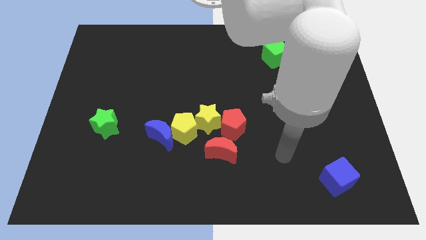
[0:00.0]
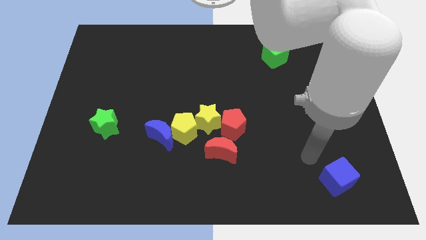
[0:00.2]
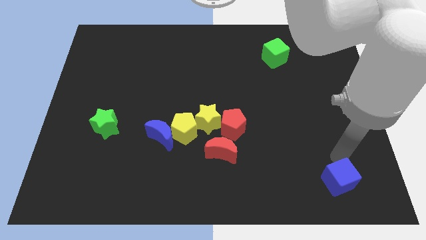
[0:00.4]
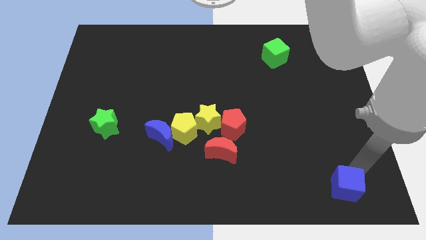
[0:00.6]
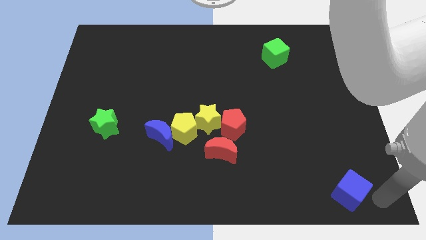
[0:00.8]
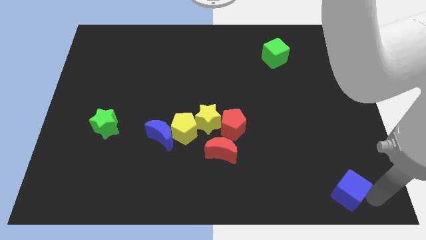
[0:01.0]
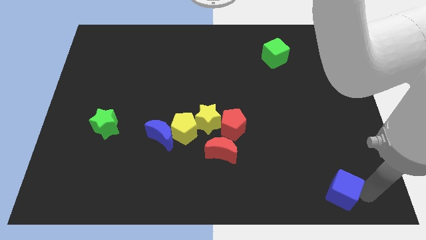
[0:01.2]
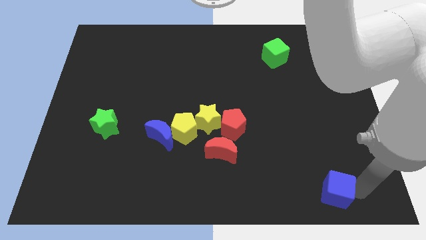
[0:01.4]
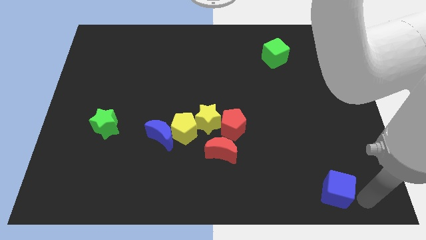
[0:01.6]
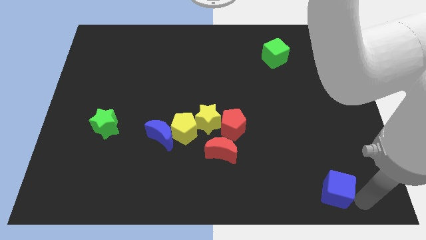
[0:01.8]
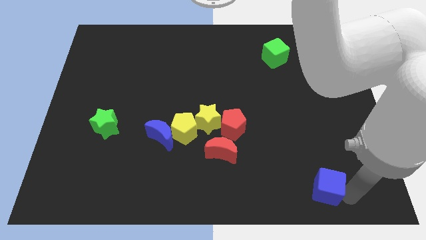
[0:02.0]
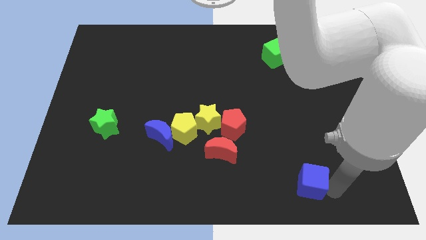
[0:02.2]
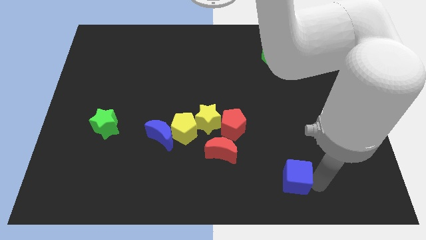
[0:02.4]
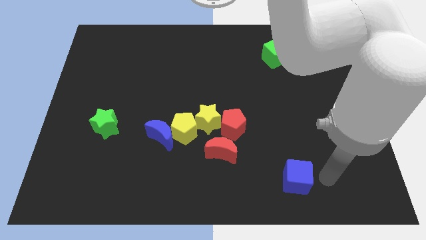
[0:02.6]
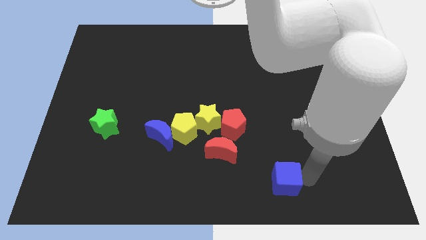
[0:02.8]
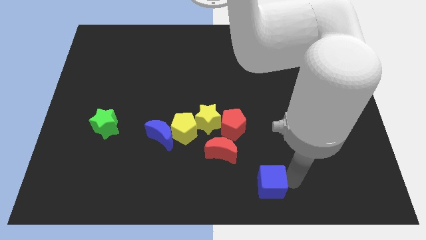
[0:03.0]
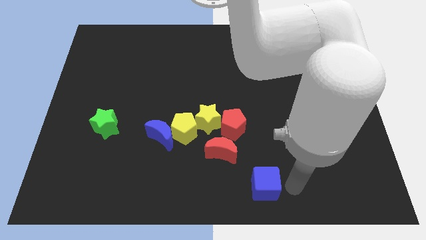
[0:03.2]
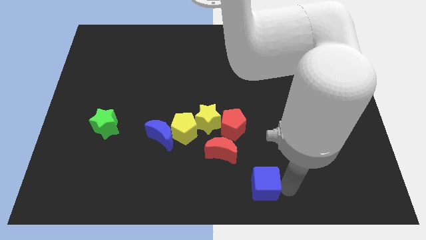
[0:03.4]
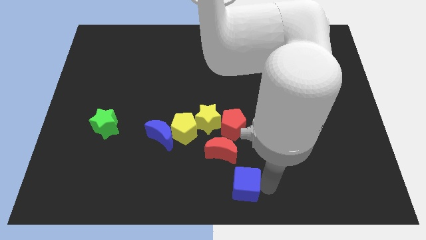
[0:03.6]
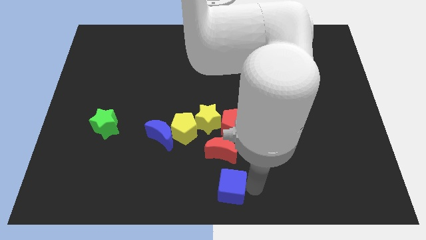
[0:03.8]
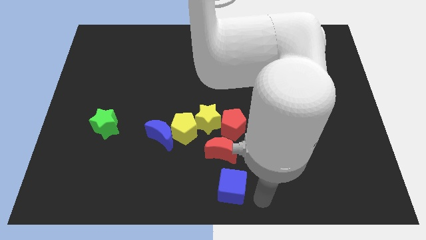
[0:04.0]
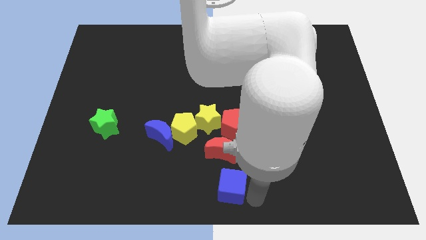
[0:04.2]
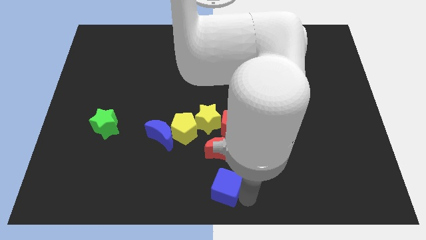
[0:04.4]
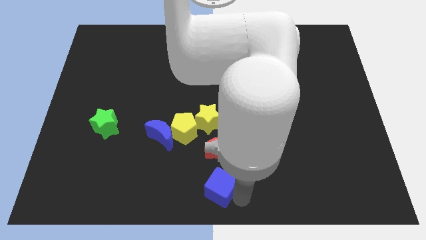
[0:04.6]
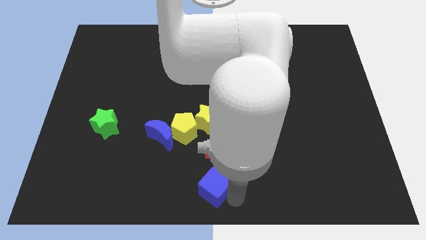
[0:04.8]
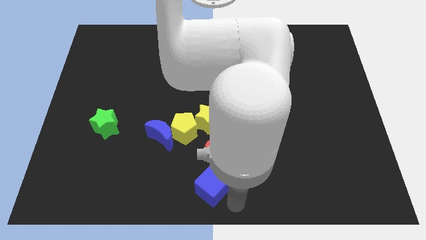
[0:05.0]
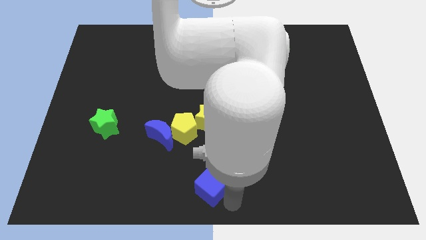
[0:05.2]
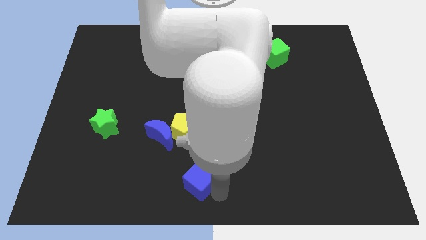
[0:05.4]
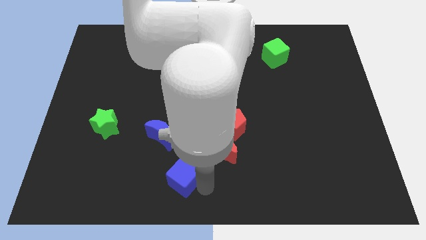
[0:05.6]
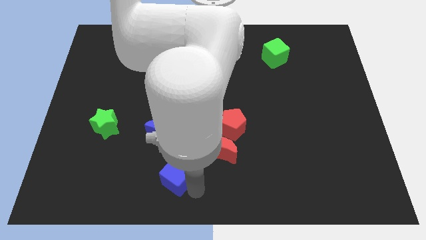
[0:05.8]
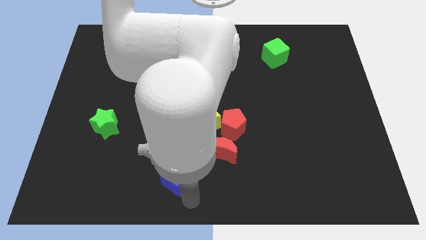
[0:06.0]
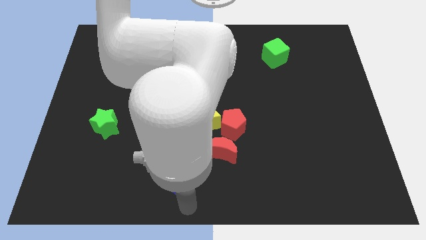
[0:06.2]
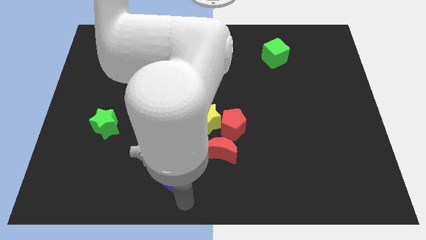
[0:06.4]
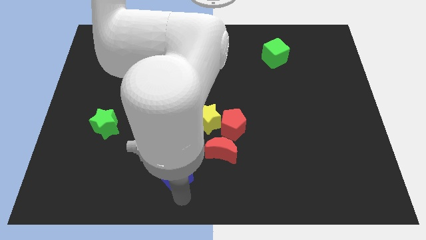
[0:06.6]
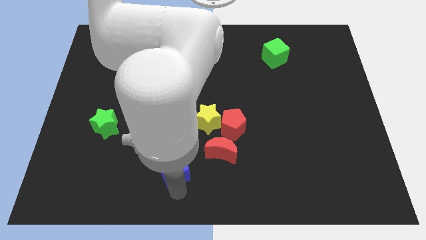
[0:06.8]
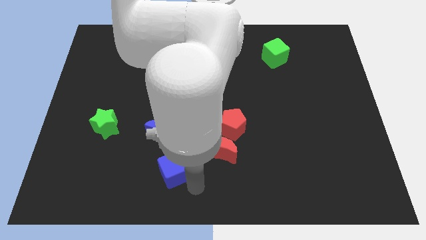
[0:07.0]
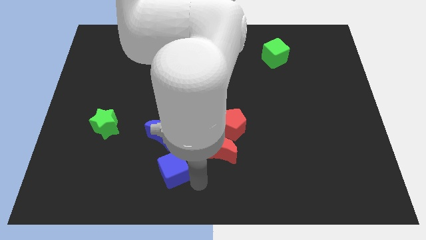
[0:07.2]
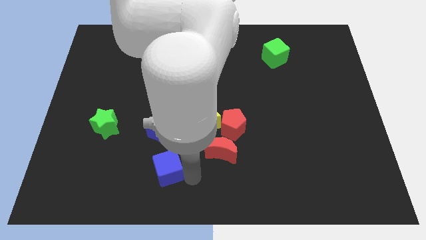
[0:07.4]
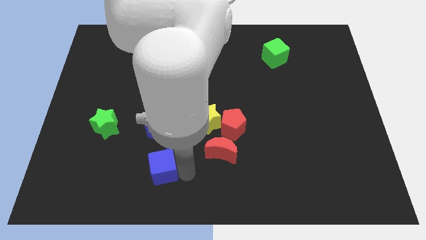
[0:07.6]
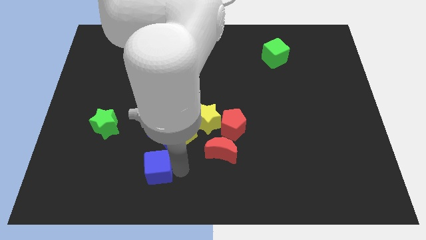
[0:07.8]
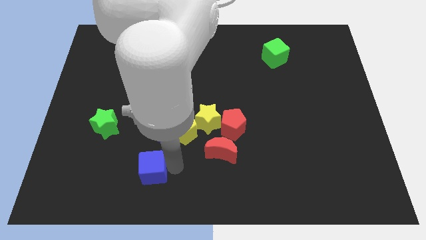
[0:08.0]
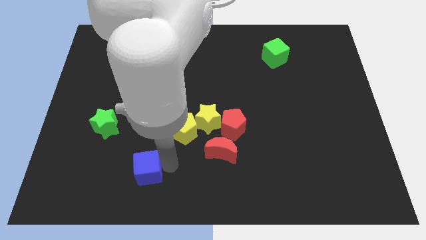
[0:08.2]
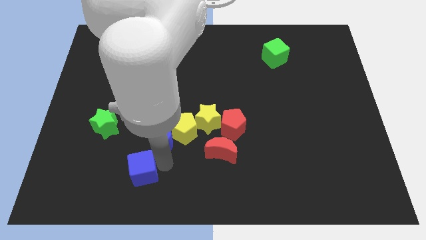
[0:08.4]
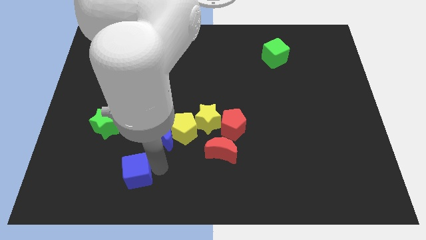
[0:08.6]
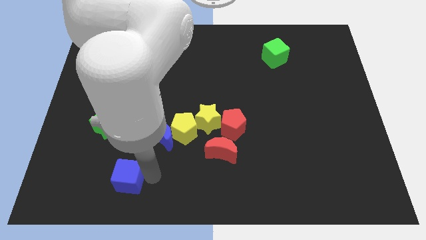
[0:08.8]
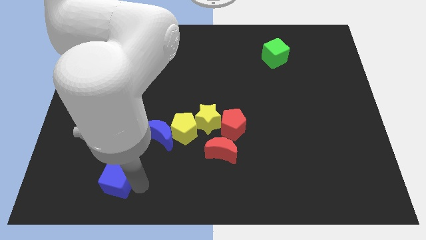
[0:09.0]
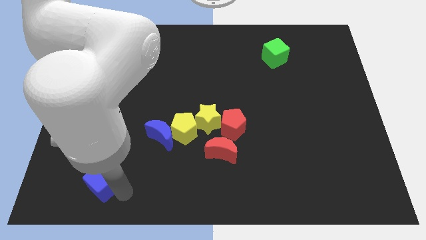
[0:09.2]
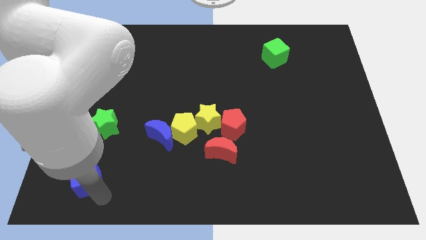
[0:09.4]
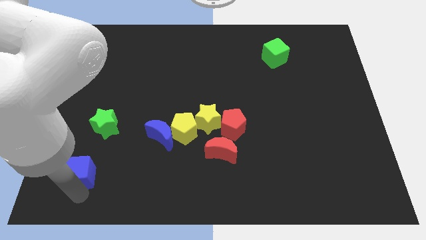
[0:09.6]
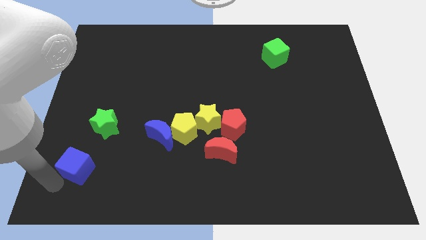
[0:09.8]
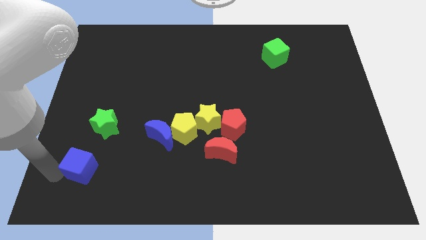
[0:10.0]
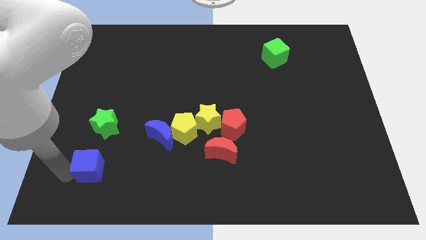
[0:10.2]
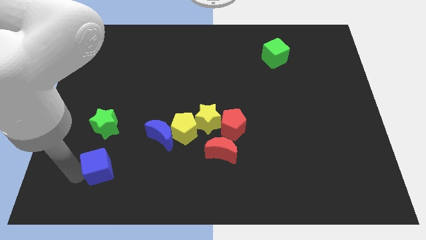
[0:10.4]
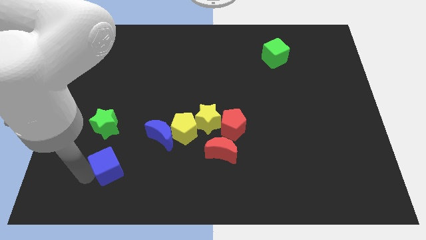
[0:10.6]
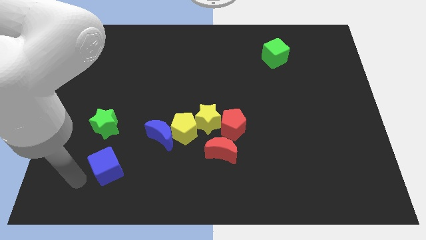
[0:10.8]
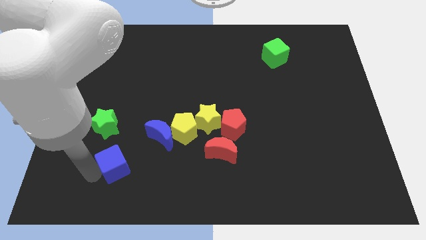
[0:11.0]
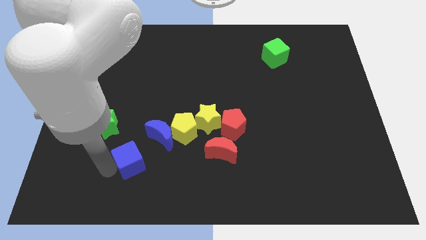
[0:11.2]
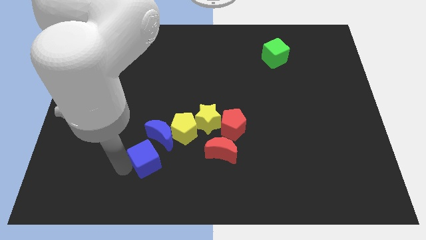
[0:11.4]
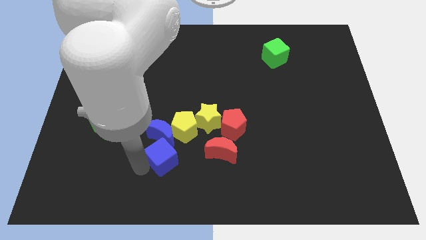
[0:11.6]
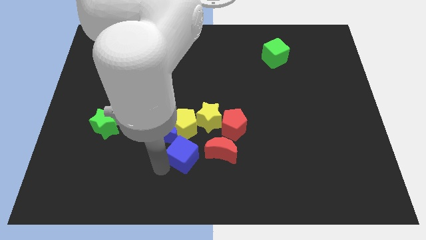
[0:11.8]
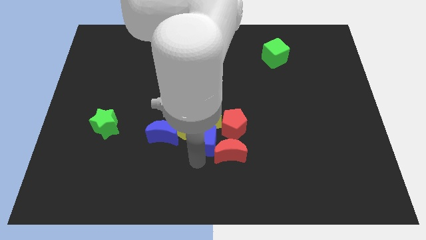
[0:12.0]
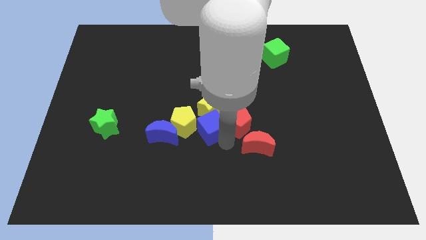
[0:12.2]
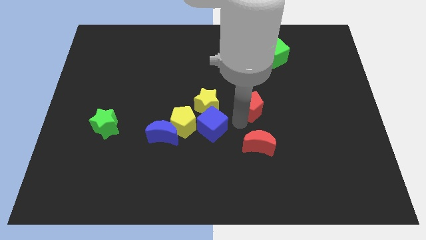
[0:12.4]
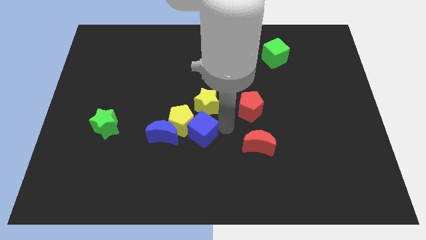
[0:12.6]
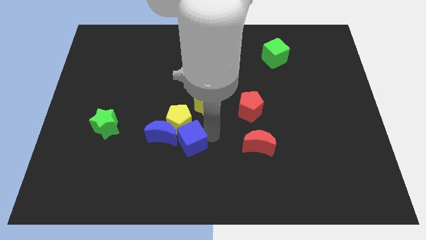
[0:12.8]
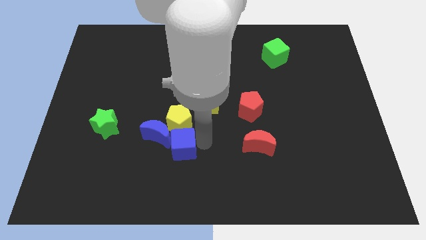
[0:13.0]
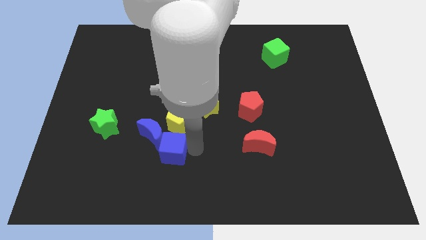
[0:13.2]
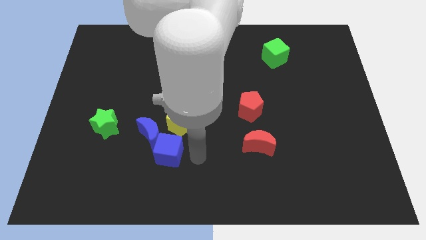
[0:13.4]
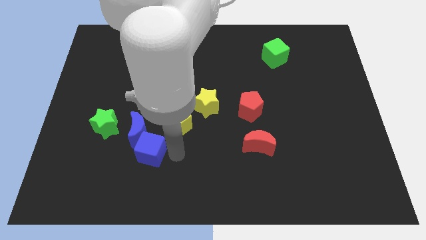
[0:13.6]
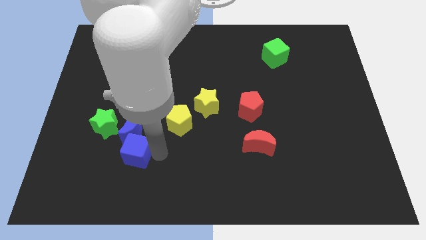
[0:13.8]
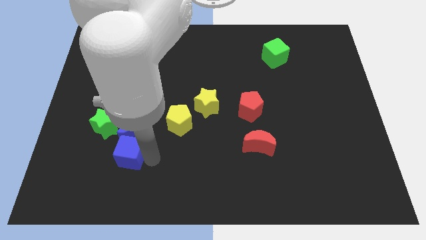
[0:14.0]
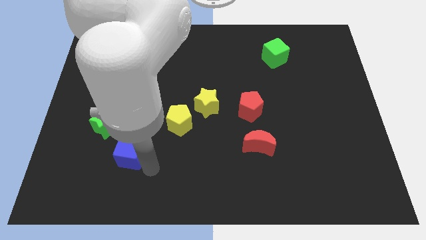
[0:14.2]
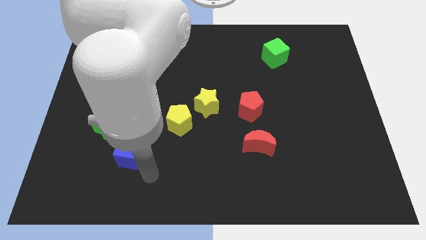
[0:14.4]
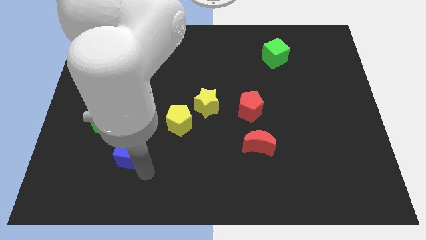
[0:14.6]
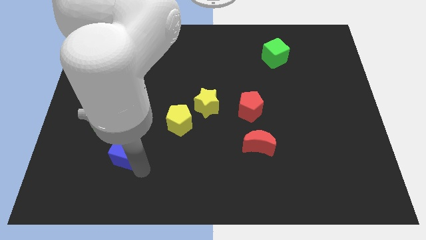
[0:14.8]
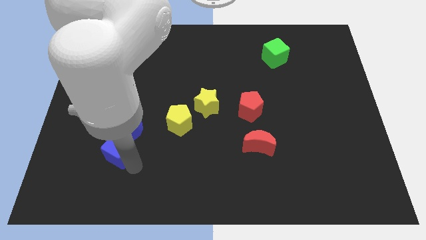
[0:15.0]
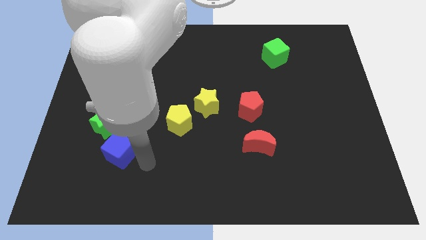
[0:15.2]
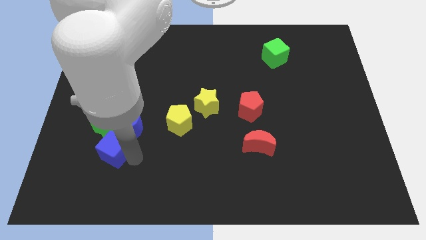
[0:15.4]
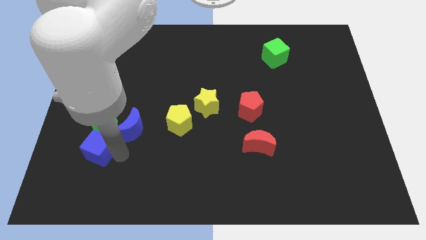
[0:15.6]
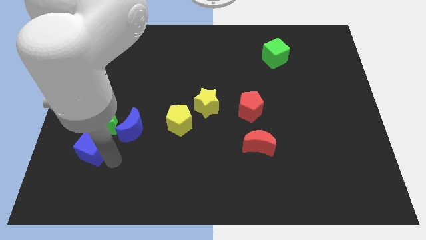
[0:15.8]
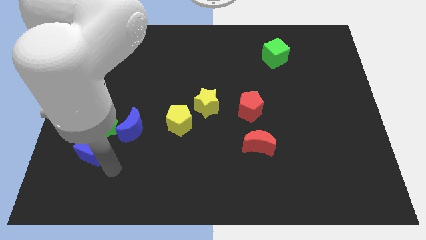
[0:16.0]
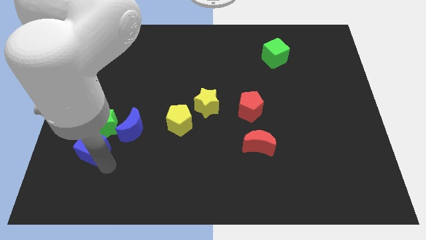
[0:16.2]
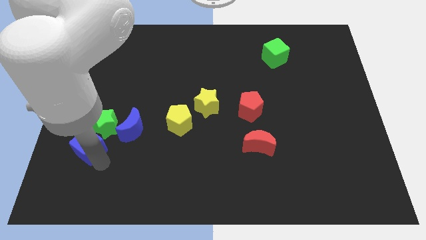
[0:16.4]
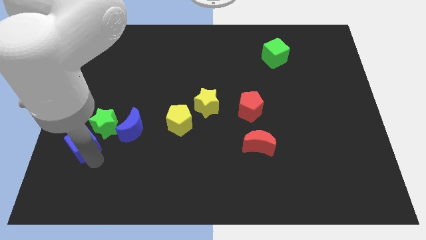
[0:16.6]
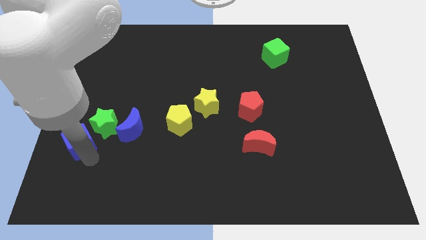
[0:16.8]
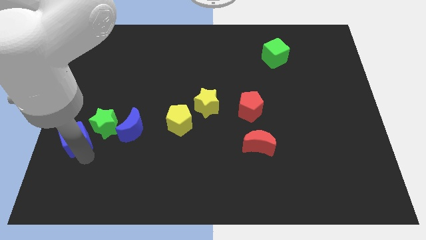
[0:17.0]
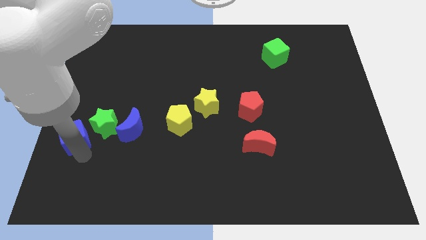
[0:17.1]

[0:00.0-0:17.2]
push the blue cube to the left side
